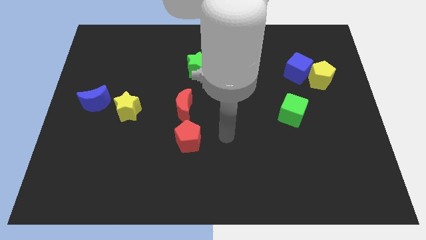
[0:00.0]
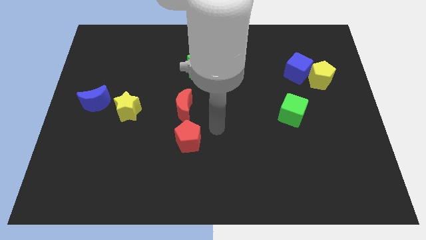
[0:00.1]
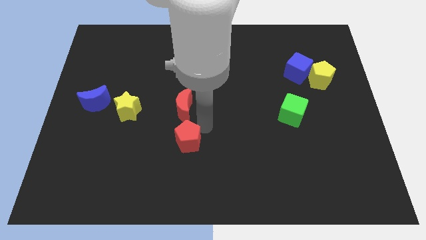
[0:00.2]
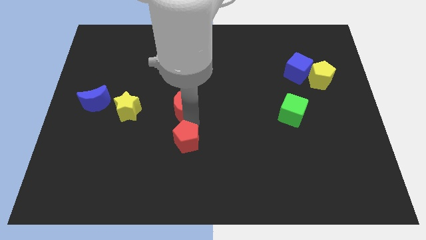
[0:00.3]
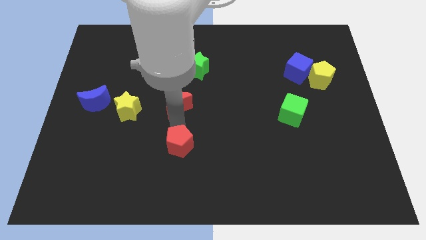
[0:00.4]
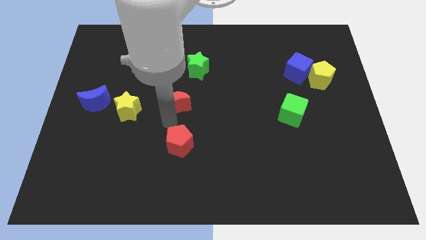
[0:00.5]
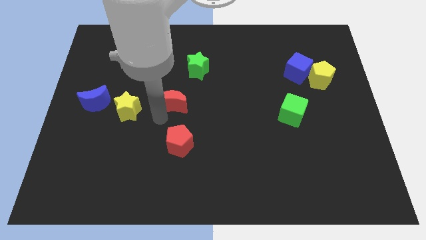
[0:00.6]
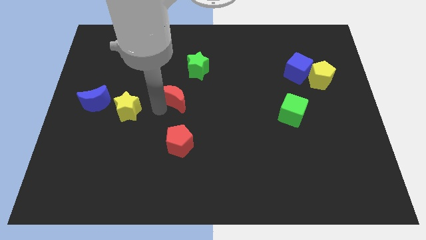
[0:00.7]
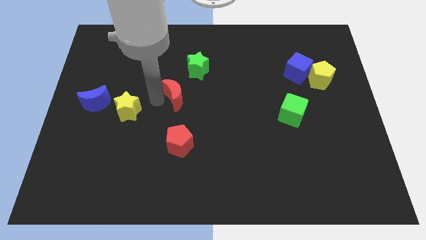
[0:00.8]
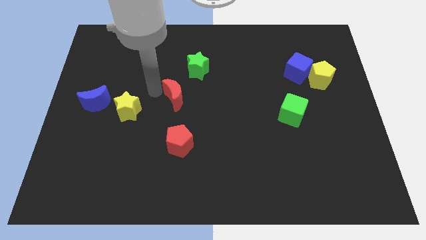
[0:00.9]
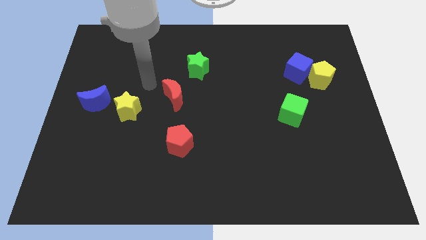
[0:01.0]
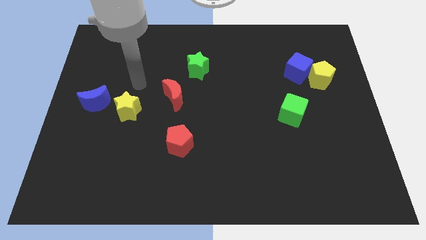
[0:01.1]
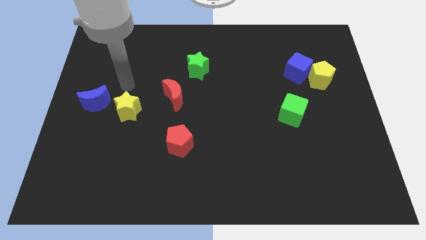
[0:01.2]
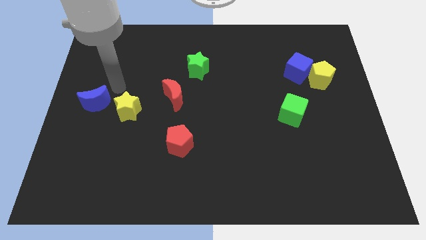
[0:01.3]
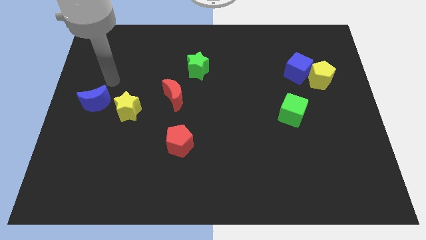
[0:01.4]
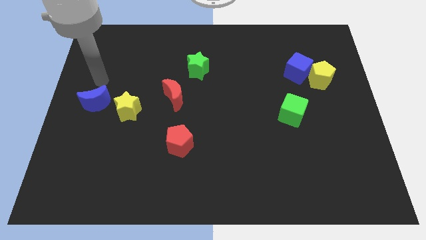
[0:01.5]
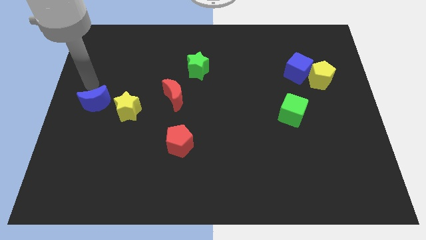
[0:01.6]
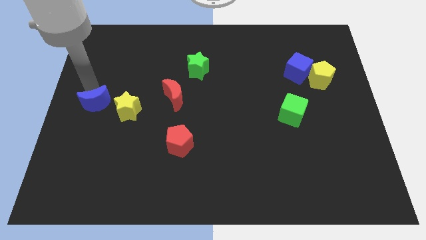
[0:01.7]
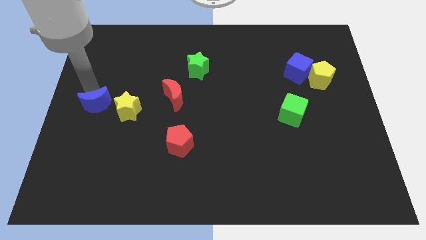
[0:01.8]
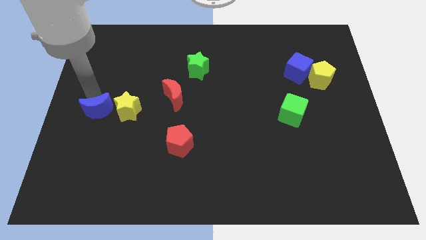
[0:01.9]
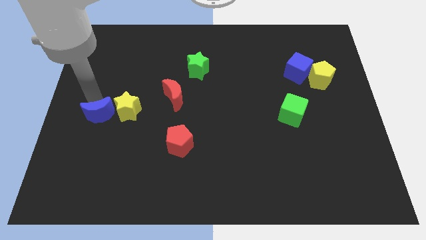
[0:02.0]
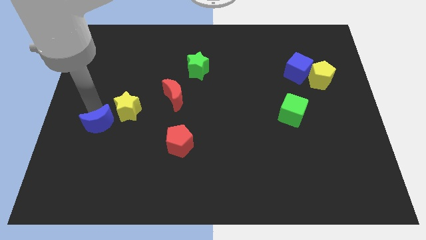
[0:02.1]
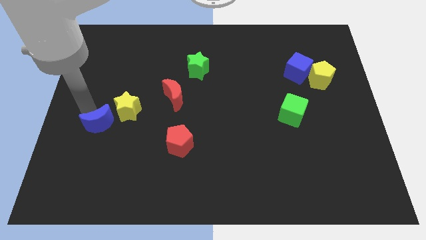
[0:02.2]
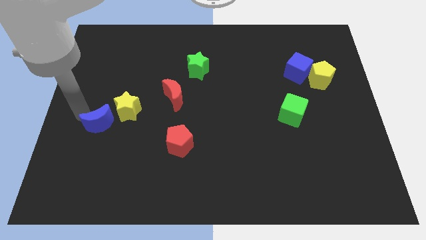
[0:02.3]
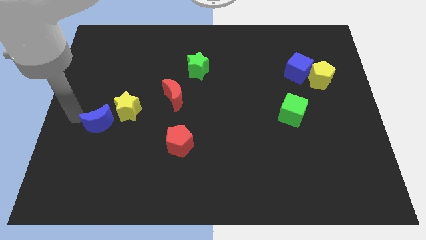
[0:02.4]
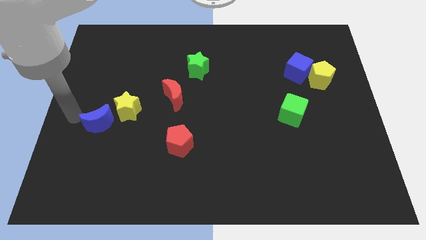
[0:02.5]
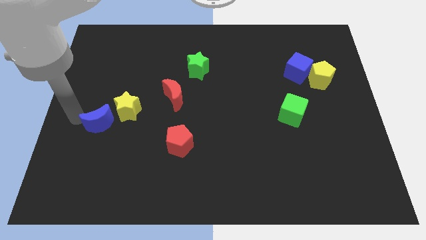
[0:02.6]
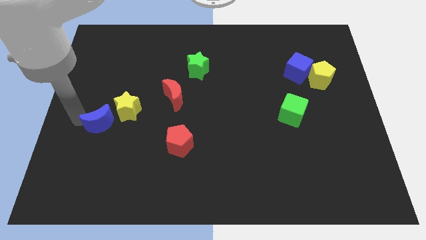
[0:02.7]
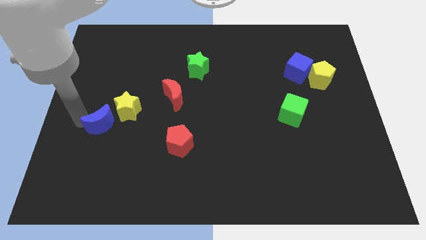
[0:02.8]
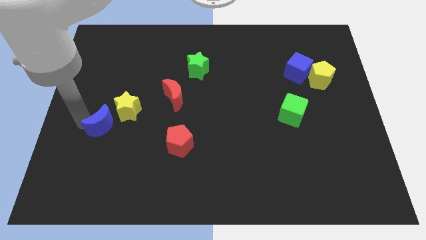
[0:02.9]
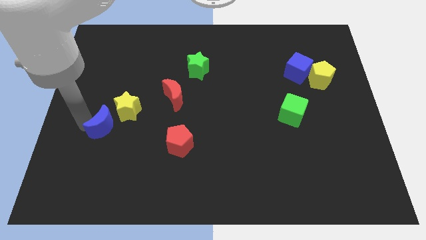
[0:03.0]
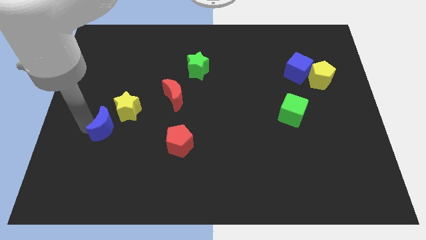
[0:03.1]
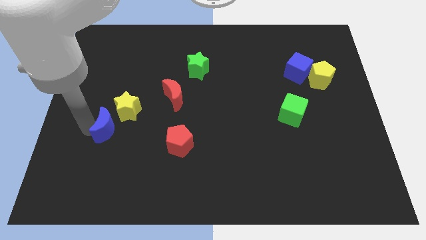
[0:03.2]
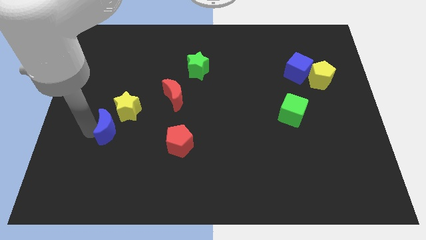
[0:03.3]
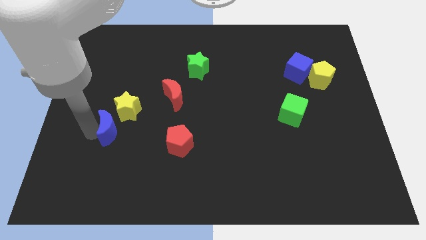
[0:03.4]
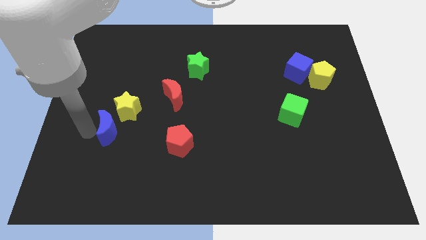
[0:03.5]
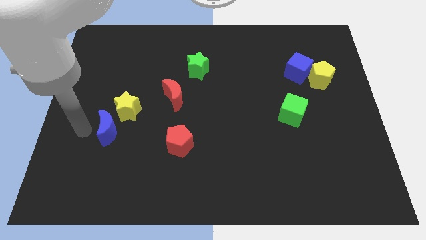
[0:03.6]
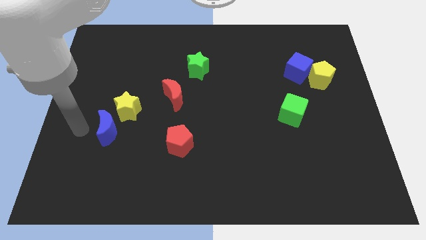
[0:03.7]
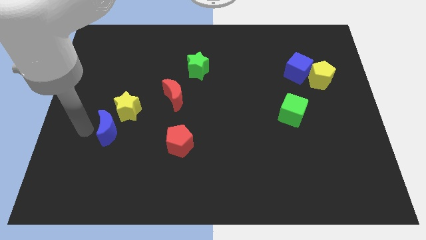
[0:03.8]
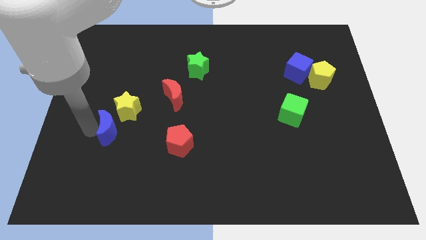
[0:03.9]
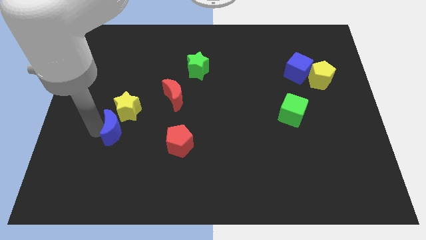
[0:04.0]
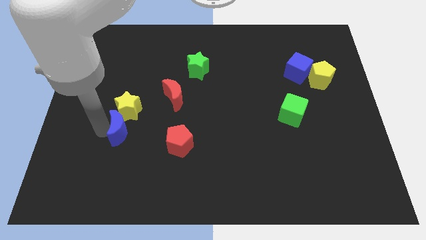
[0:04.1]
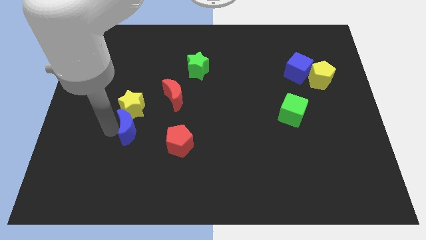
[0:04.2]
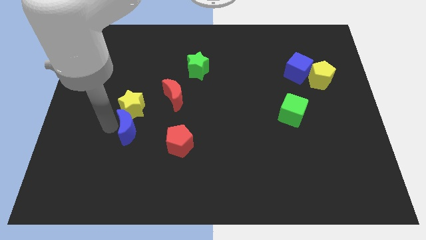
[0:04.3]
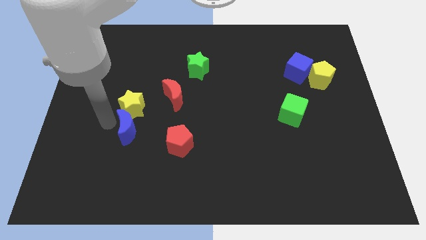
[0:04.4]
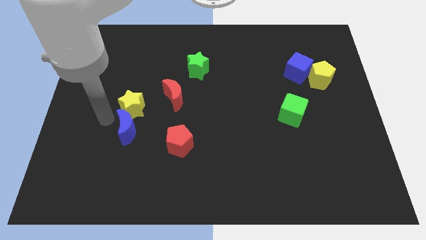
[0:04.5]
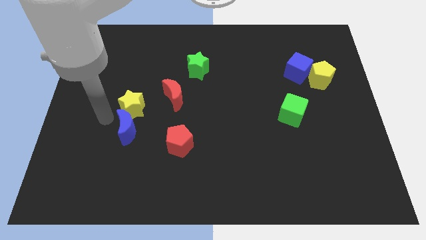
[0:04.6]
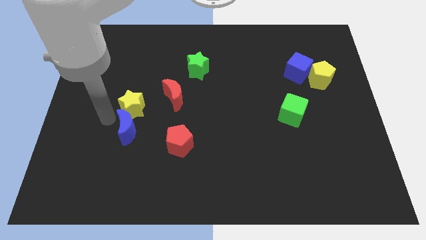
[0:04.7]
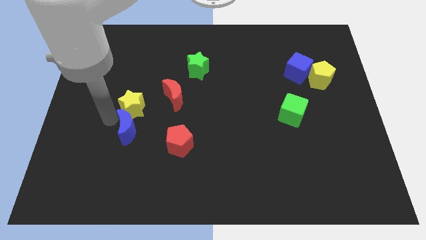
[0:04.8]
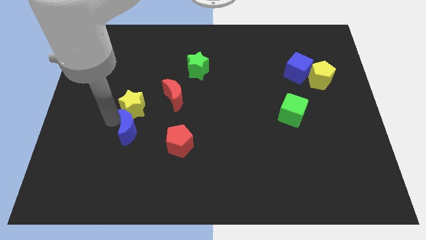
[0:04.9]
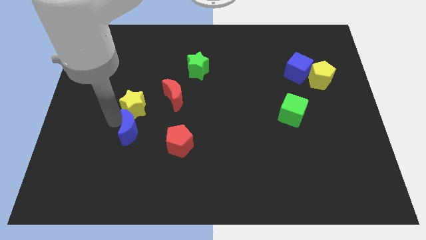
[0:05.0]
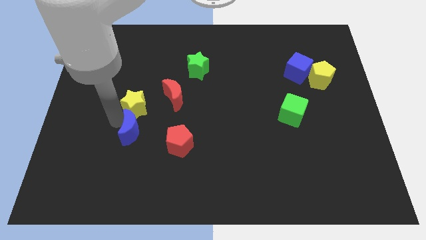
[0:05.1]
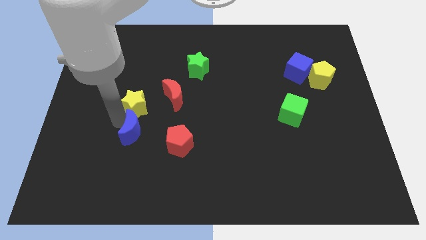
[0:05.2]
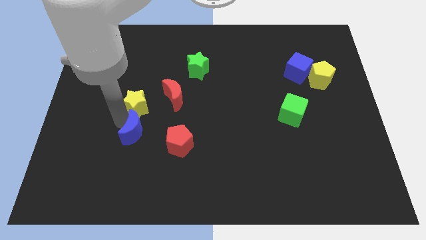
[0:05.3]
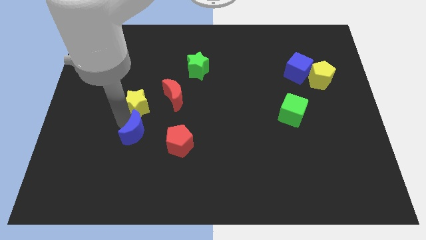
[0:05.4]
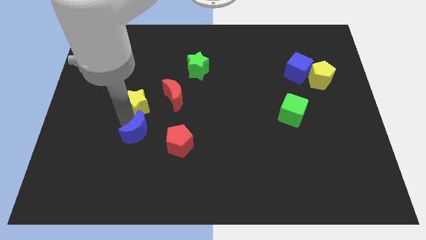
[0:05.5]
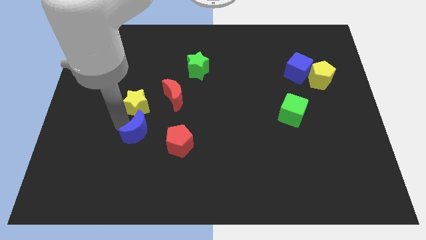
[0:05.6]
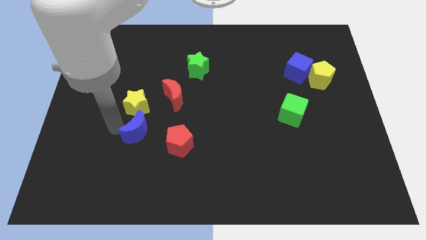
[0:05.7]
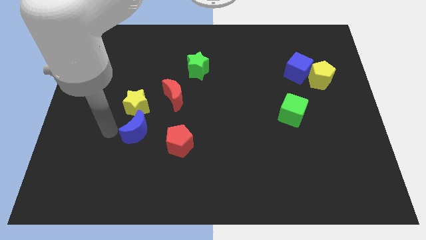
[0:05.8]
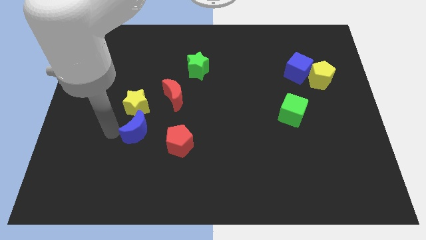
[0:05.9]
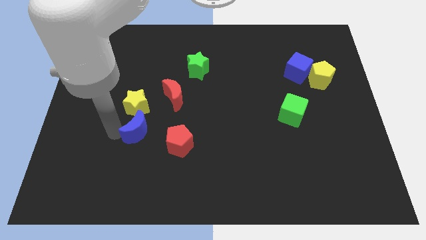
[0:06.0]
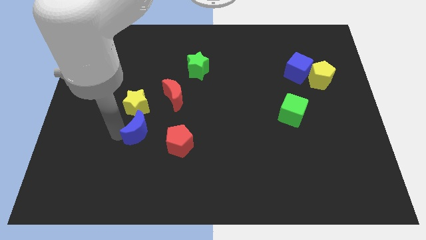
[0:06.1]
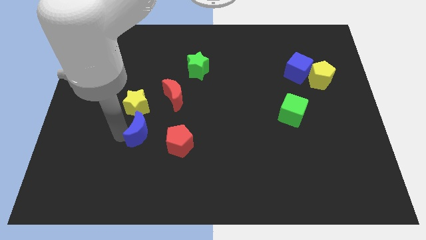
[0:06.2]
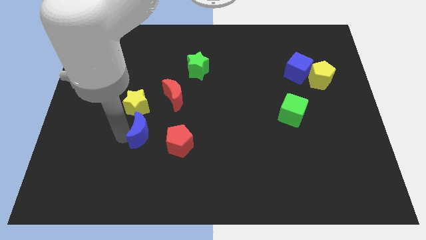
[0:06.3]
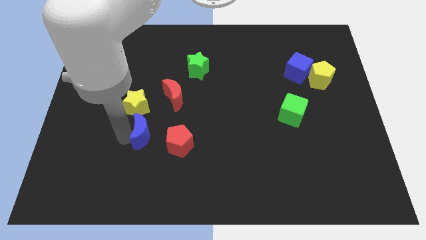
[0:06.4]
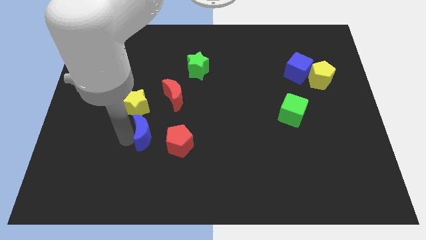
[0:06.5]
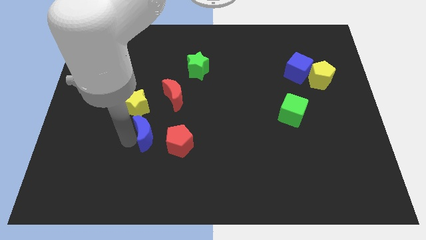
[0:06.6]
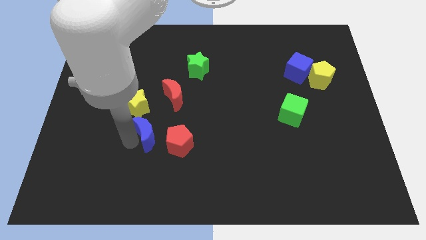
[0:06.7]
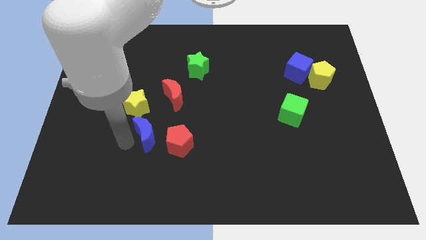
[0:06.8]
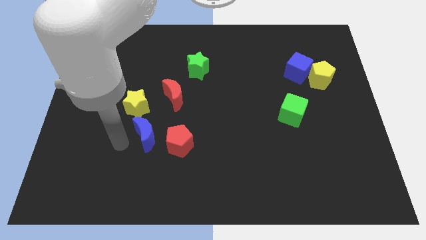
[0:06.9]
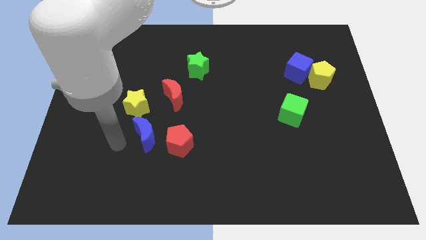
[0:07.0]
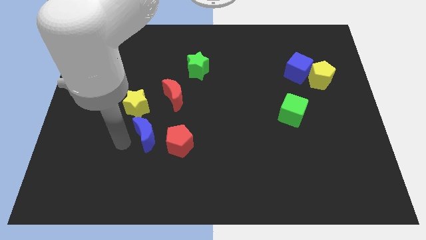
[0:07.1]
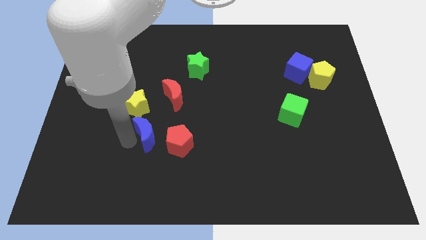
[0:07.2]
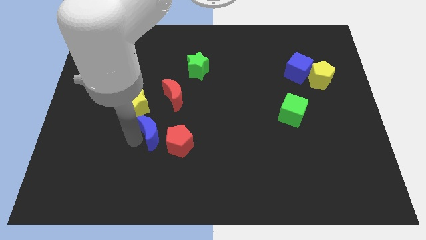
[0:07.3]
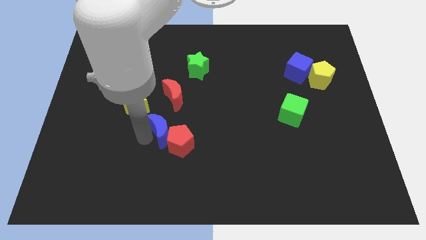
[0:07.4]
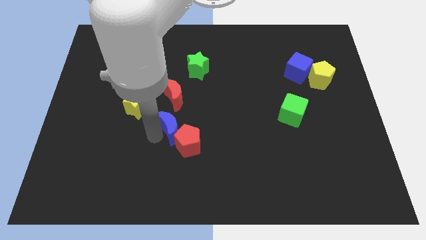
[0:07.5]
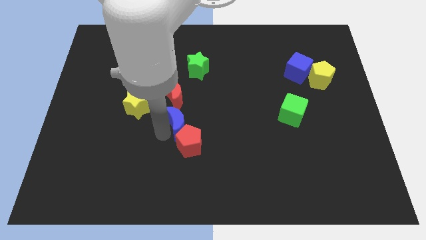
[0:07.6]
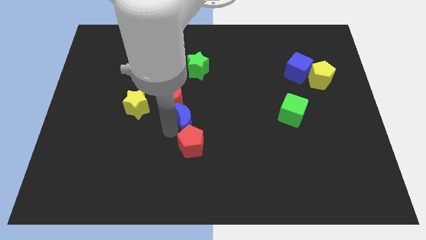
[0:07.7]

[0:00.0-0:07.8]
push the blue moon to the bottom right of the red moon
